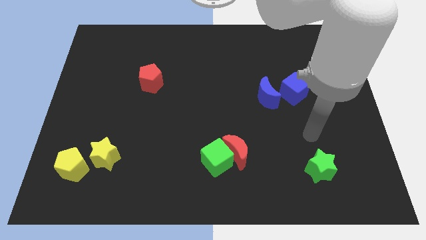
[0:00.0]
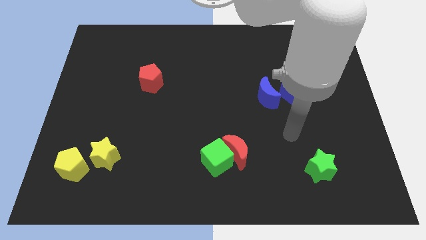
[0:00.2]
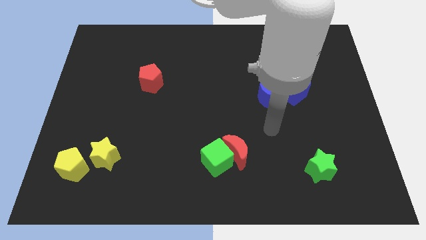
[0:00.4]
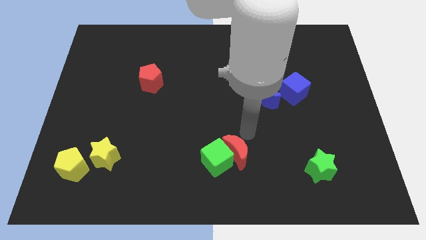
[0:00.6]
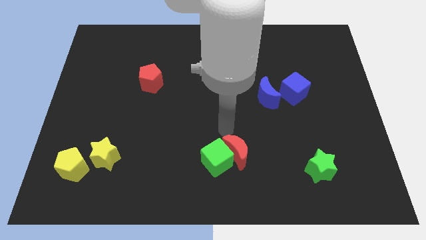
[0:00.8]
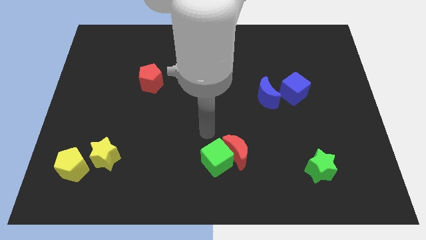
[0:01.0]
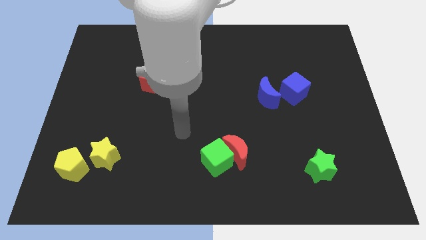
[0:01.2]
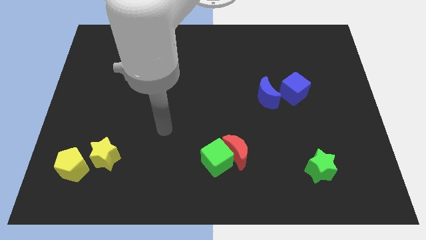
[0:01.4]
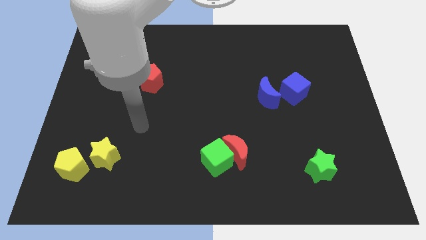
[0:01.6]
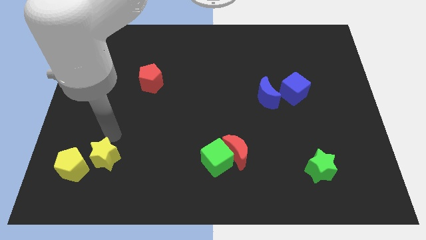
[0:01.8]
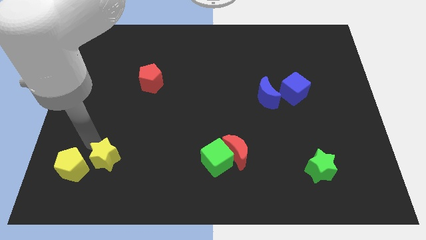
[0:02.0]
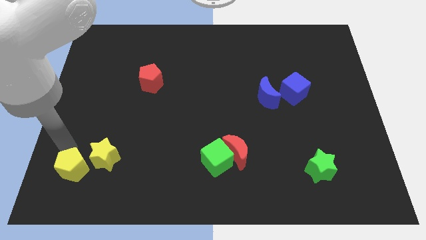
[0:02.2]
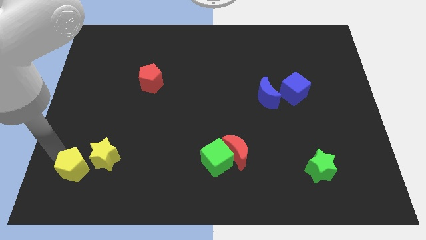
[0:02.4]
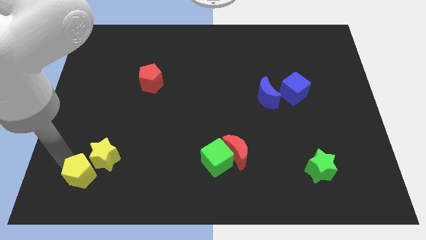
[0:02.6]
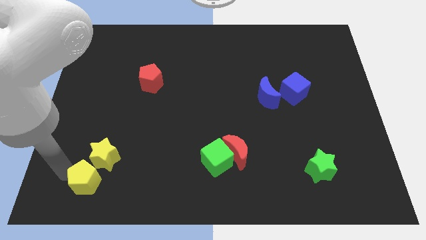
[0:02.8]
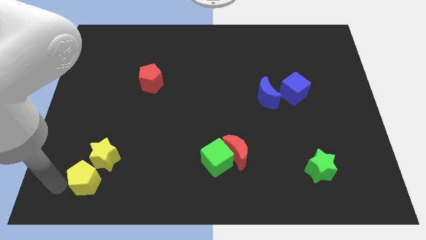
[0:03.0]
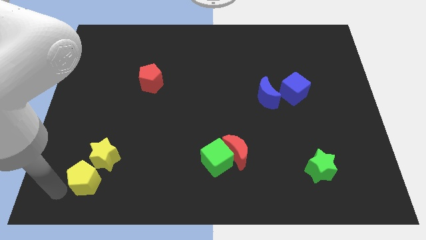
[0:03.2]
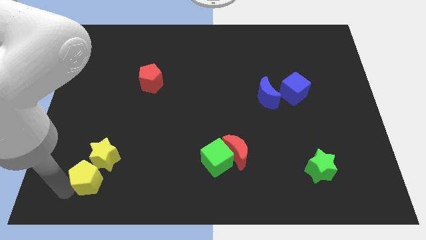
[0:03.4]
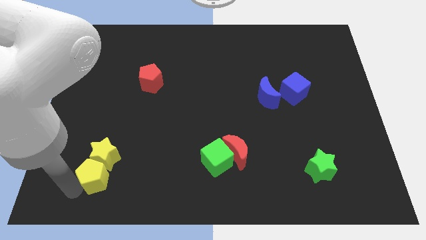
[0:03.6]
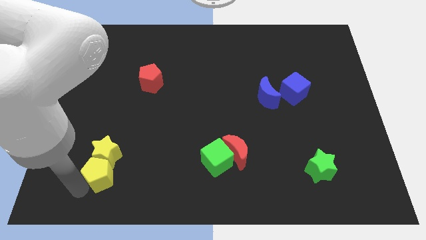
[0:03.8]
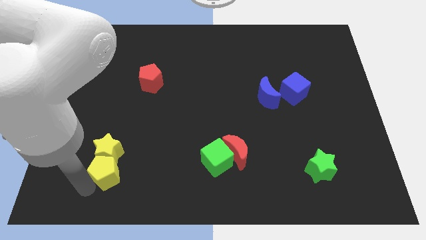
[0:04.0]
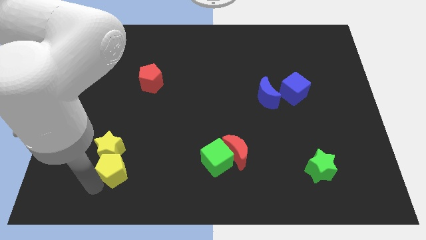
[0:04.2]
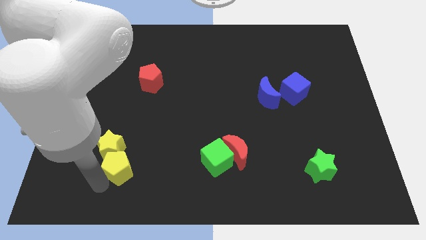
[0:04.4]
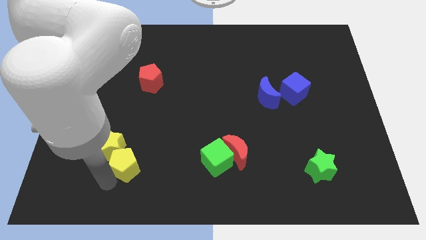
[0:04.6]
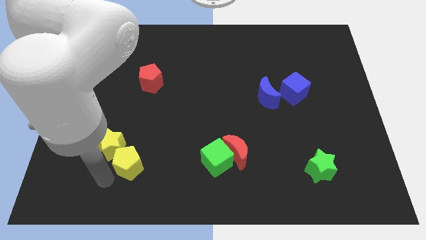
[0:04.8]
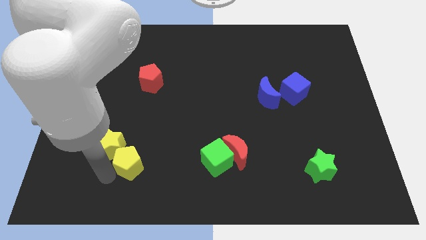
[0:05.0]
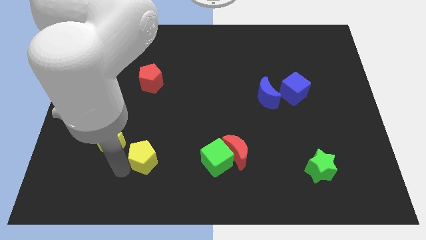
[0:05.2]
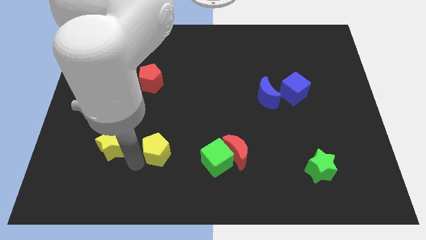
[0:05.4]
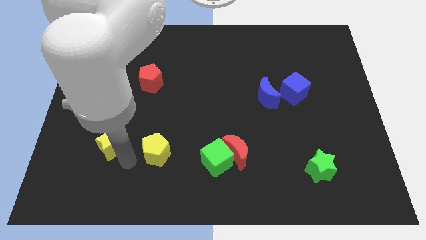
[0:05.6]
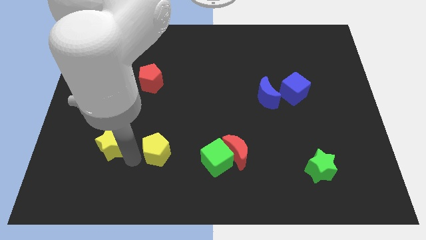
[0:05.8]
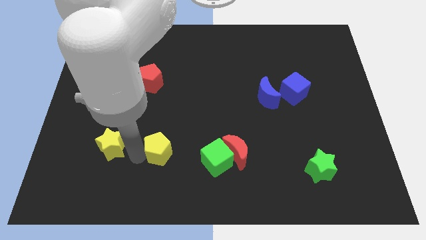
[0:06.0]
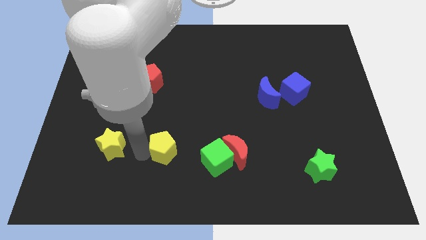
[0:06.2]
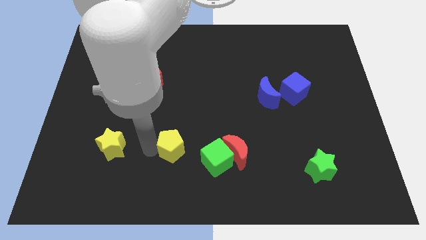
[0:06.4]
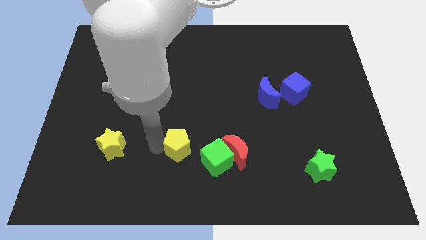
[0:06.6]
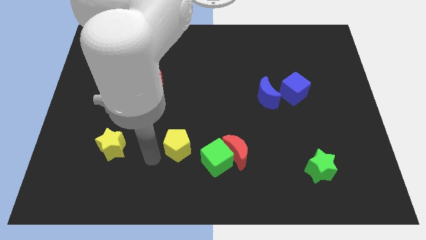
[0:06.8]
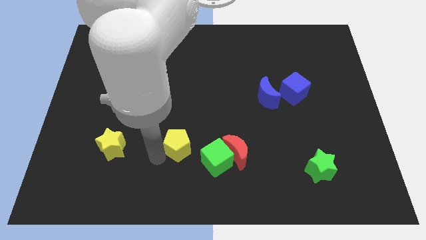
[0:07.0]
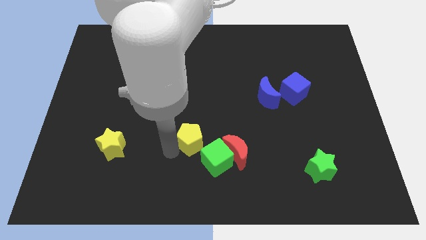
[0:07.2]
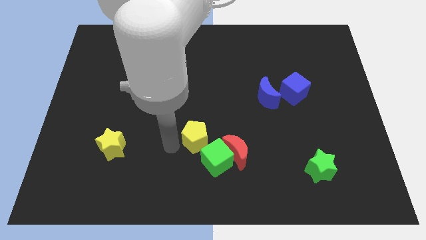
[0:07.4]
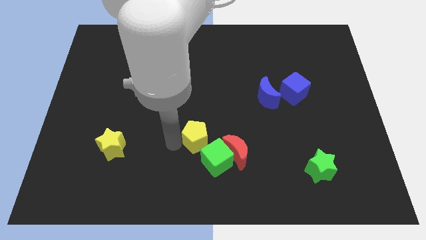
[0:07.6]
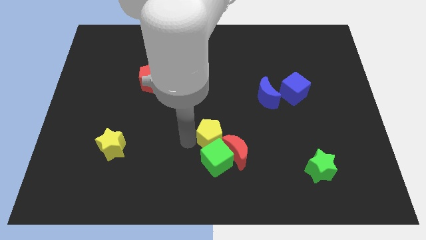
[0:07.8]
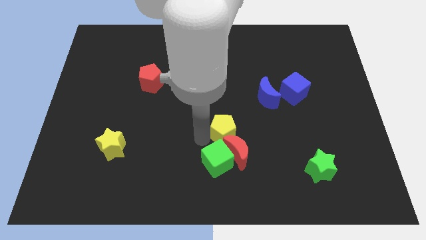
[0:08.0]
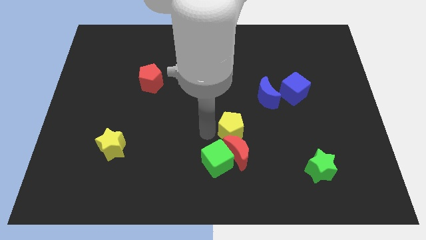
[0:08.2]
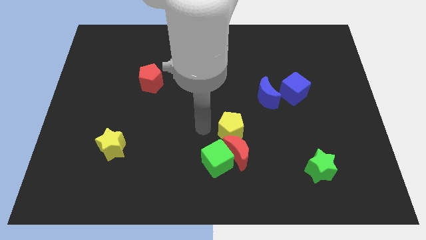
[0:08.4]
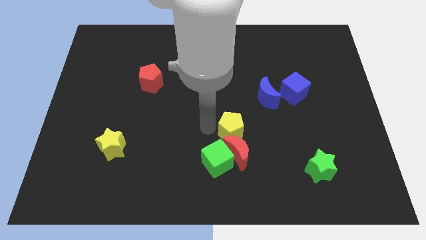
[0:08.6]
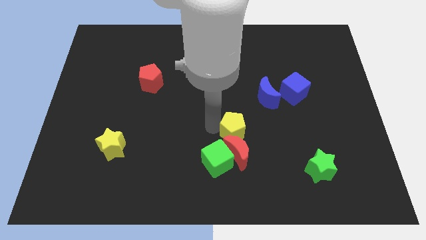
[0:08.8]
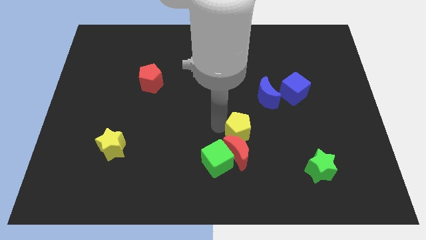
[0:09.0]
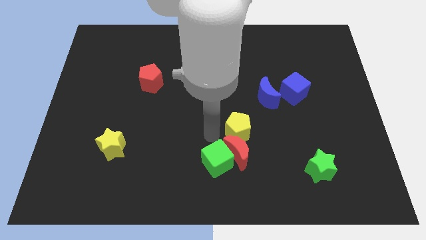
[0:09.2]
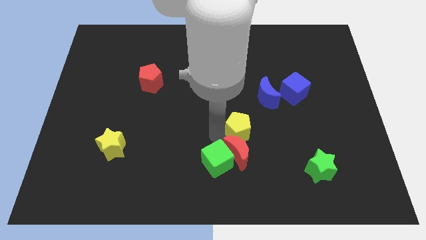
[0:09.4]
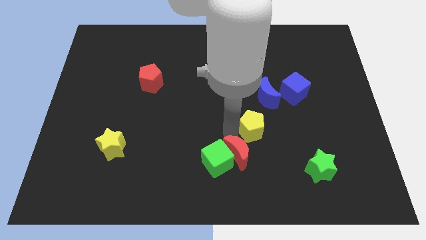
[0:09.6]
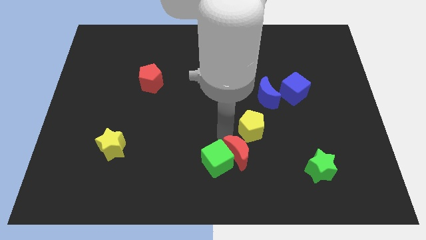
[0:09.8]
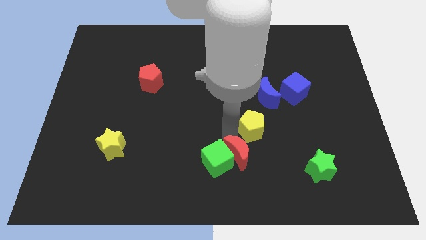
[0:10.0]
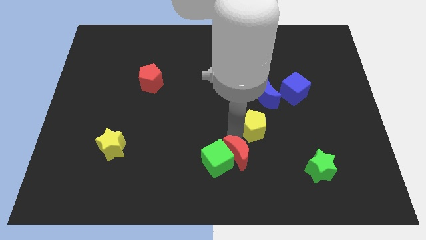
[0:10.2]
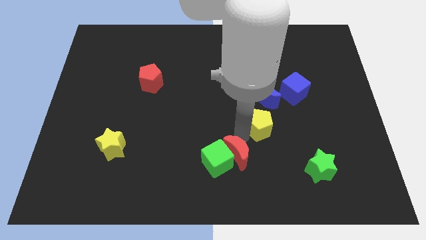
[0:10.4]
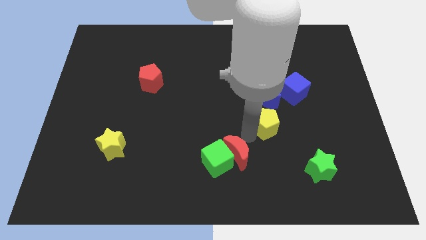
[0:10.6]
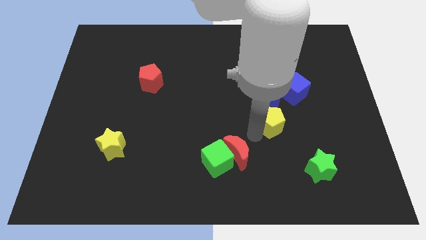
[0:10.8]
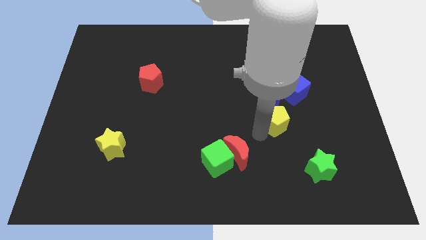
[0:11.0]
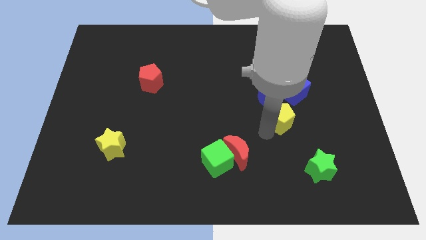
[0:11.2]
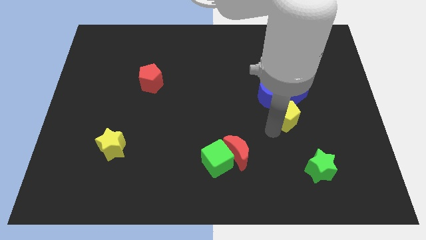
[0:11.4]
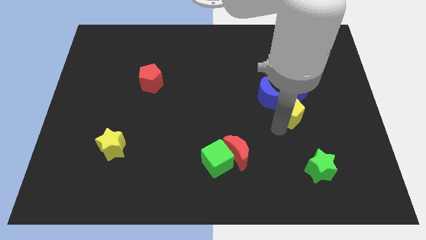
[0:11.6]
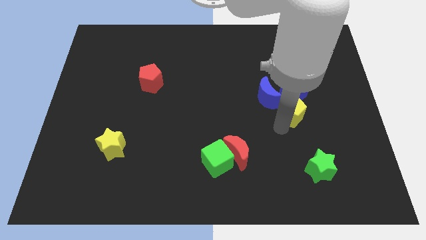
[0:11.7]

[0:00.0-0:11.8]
put the yellow pentagon just right of the blue moon
